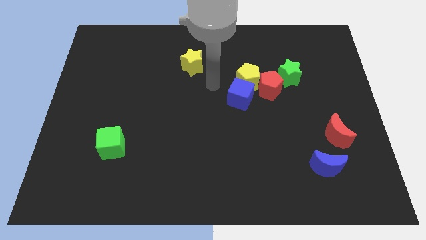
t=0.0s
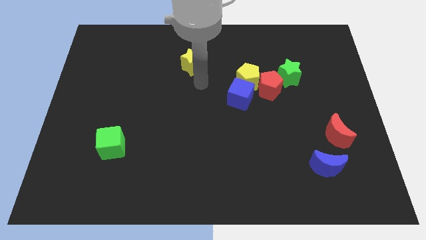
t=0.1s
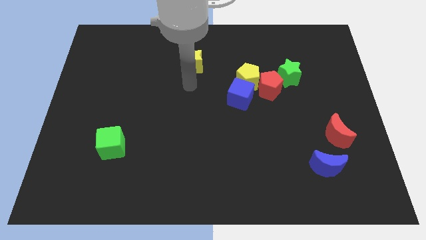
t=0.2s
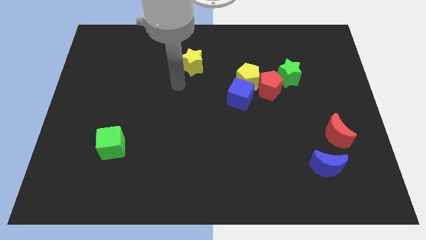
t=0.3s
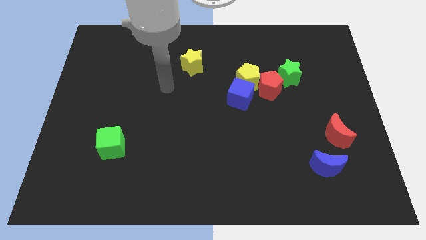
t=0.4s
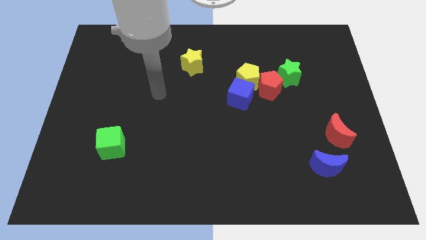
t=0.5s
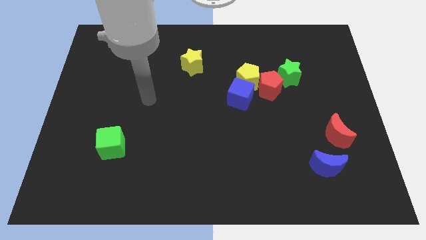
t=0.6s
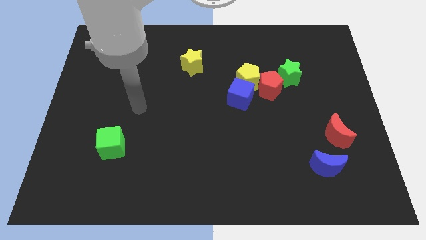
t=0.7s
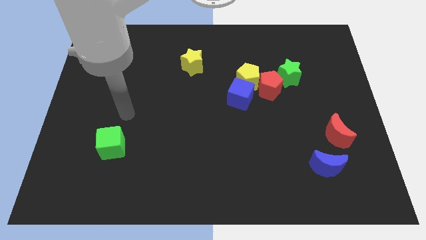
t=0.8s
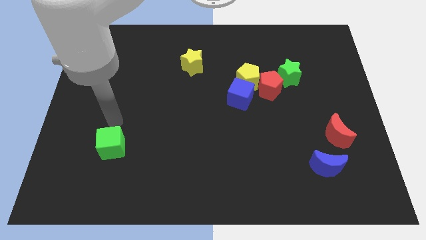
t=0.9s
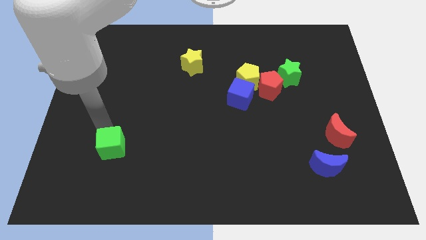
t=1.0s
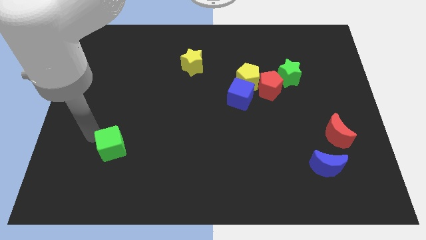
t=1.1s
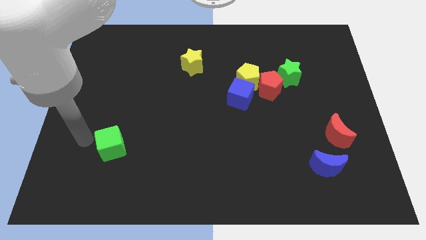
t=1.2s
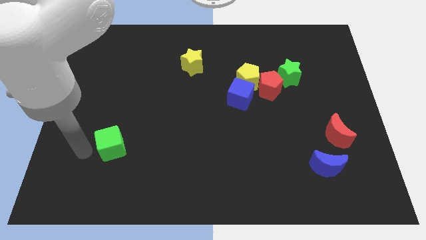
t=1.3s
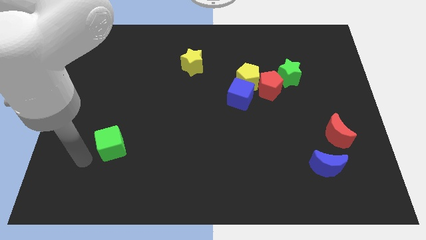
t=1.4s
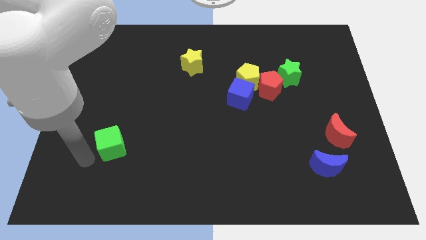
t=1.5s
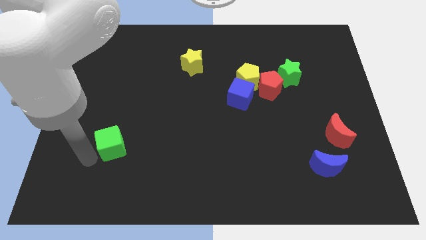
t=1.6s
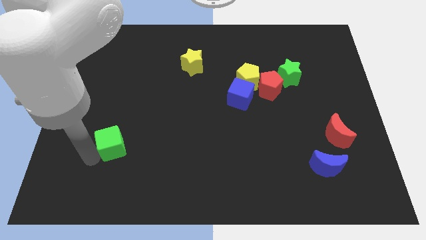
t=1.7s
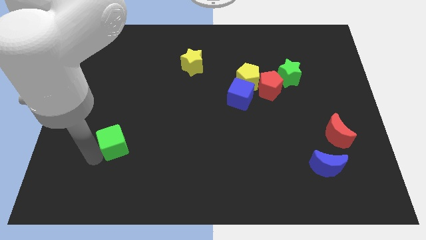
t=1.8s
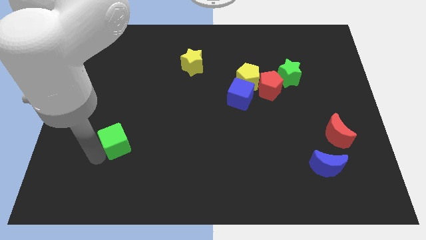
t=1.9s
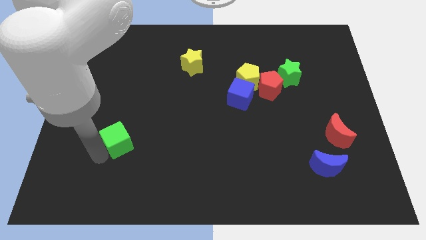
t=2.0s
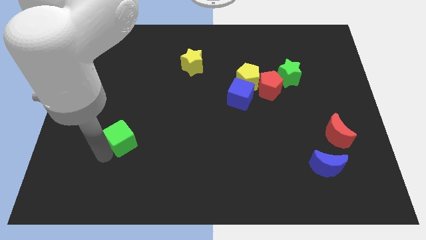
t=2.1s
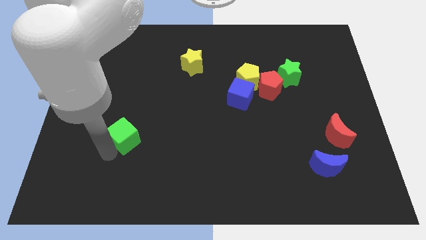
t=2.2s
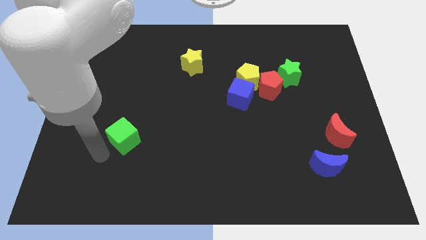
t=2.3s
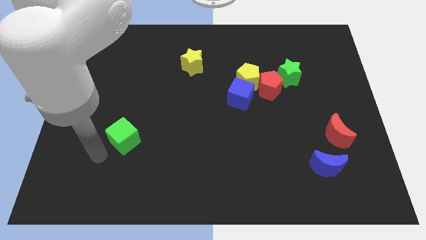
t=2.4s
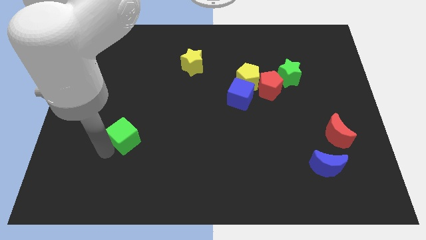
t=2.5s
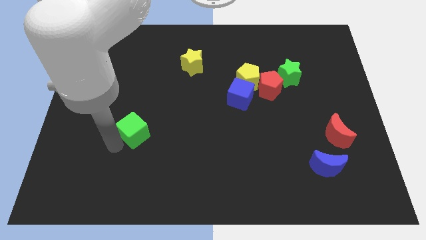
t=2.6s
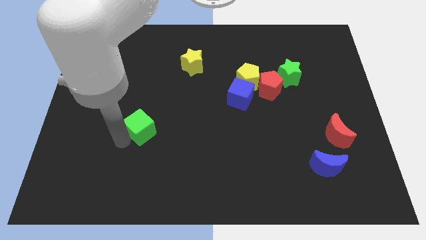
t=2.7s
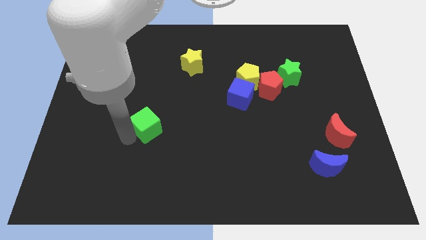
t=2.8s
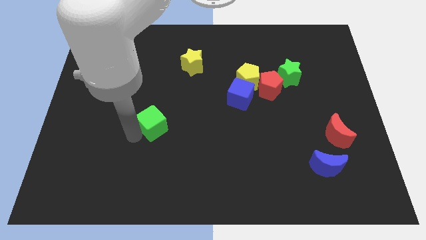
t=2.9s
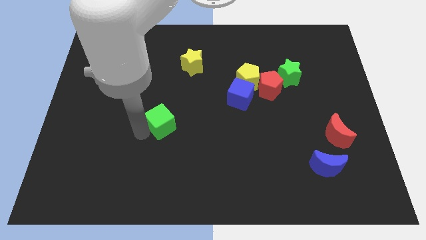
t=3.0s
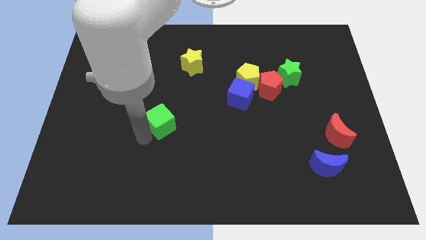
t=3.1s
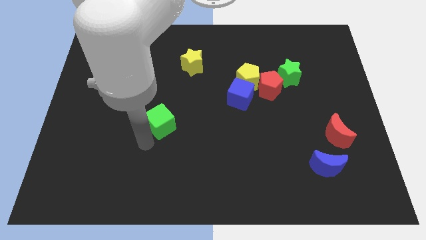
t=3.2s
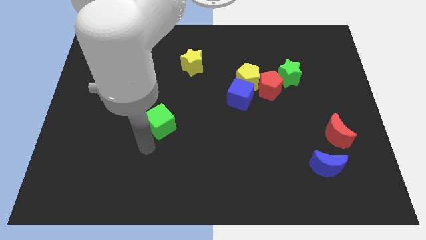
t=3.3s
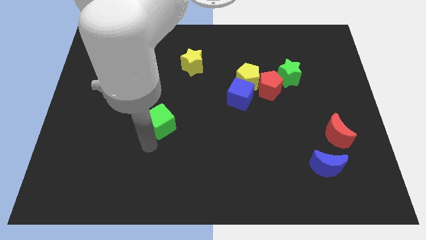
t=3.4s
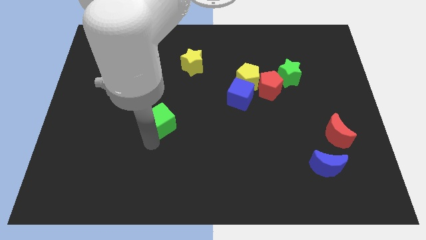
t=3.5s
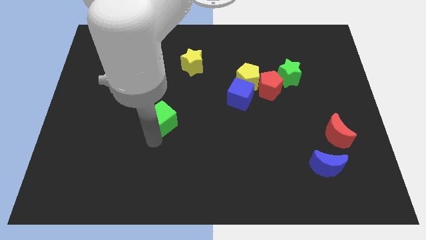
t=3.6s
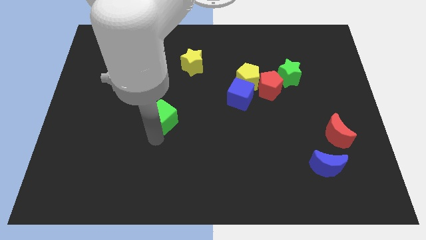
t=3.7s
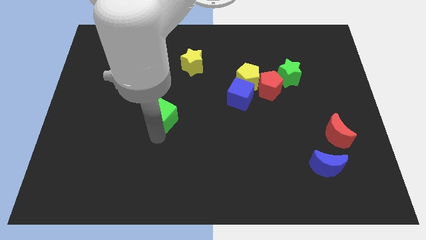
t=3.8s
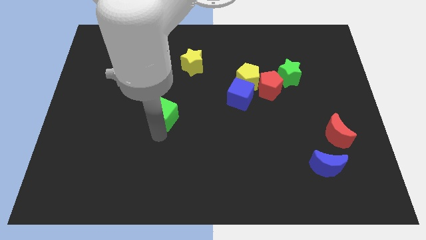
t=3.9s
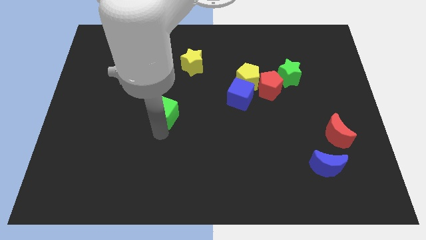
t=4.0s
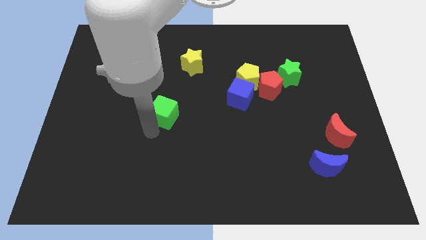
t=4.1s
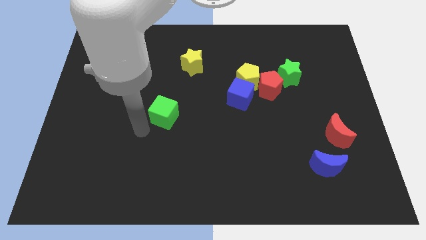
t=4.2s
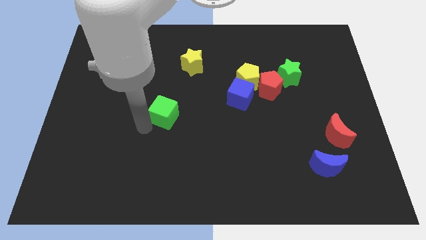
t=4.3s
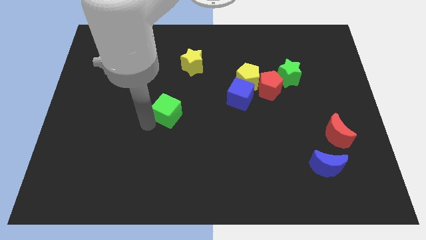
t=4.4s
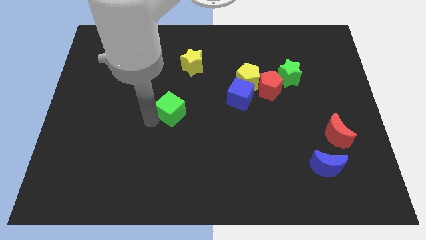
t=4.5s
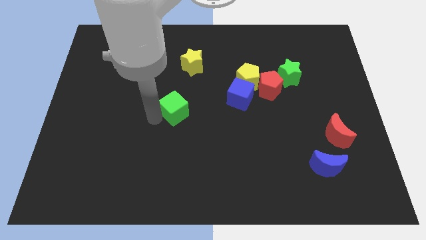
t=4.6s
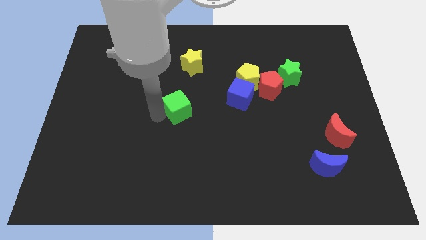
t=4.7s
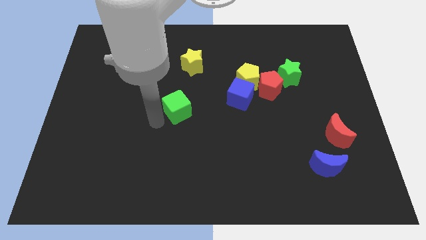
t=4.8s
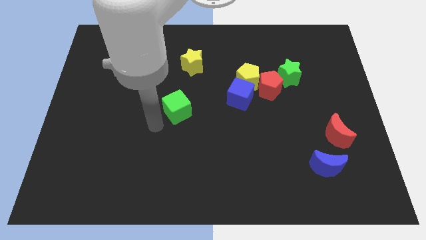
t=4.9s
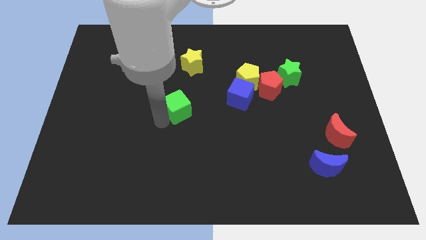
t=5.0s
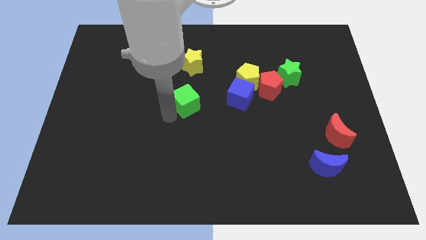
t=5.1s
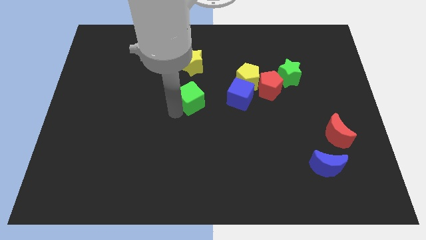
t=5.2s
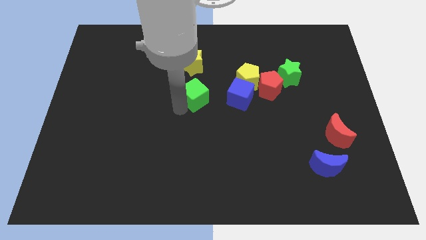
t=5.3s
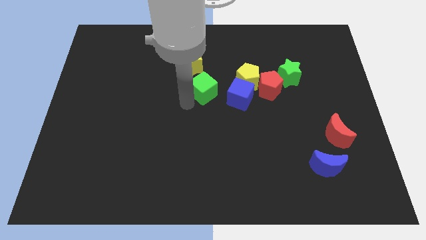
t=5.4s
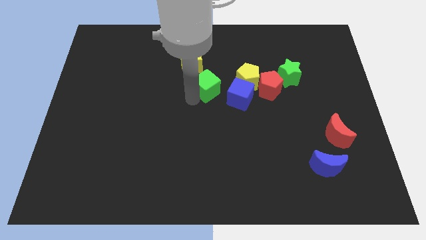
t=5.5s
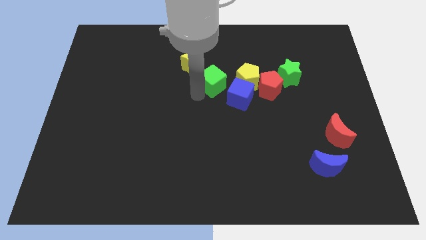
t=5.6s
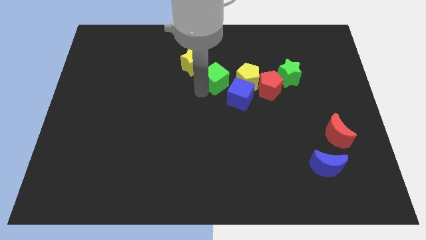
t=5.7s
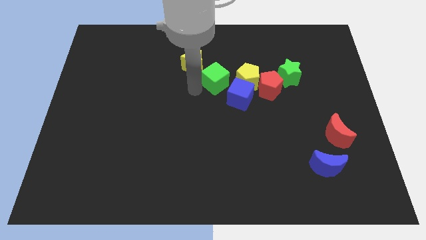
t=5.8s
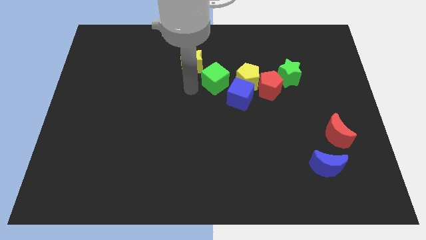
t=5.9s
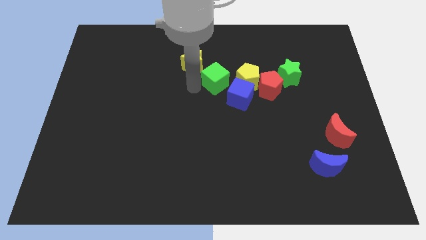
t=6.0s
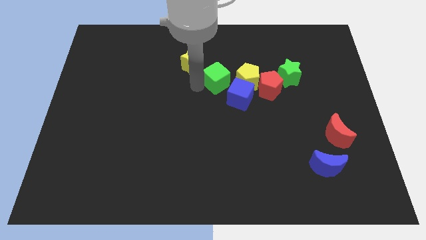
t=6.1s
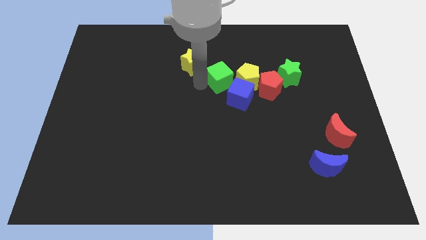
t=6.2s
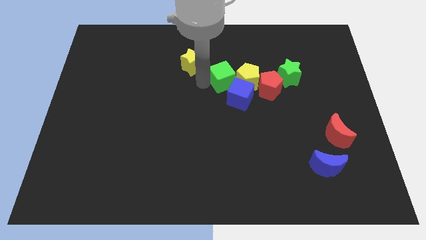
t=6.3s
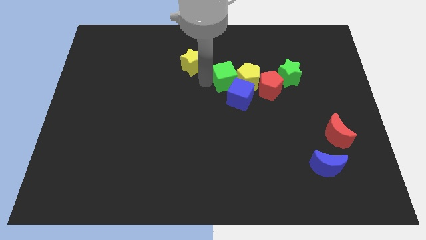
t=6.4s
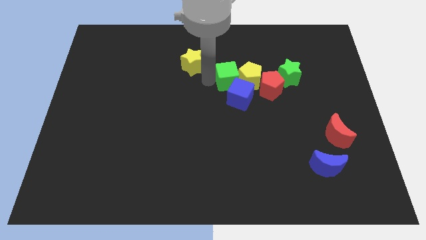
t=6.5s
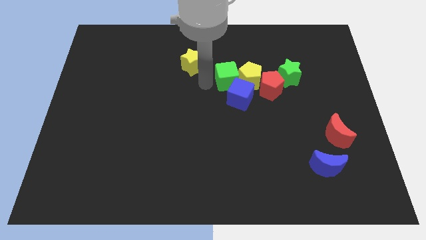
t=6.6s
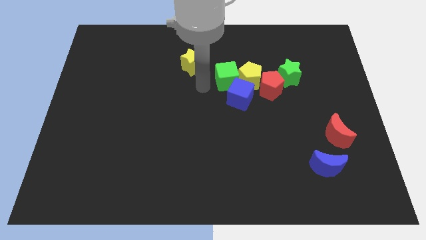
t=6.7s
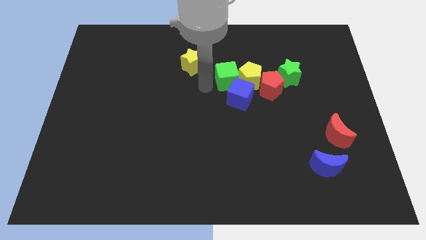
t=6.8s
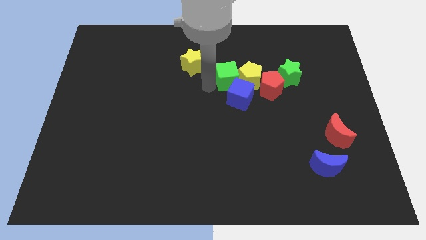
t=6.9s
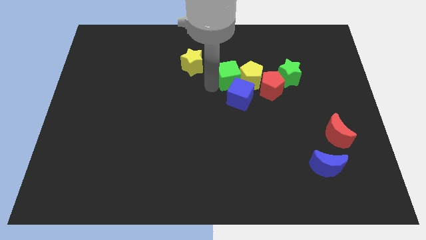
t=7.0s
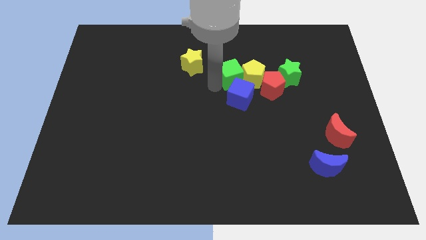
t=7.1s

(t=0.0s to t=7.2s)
push the green cube diagonally up and to the left of the red pentagon
